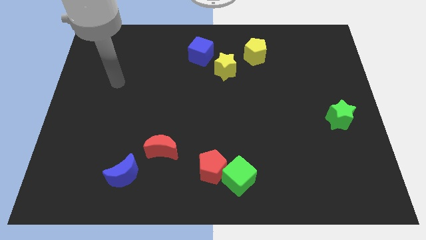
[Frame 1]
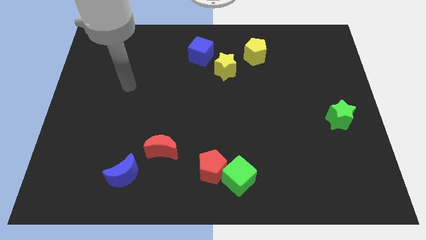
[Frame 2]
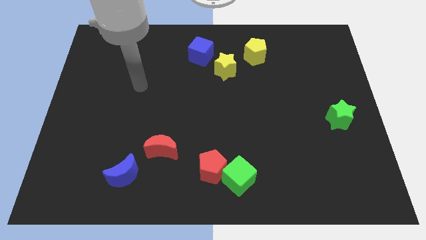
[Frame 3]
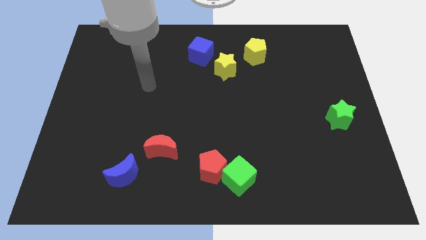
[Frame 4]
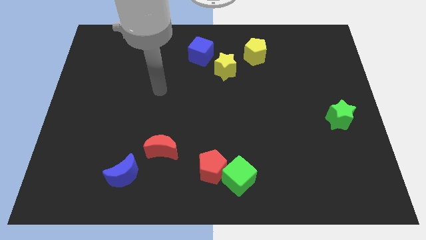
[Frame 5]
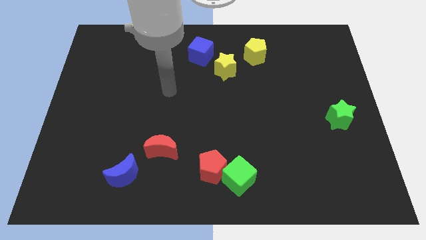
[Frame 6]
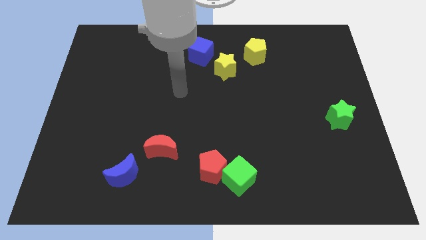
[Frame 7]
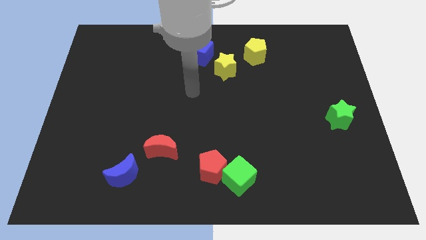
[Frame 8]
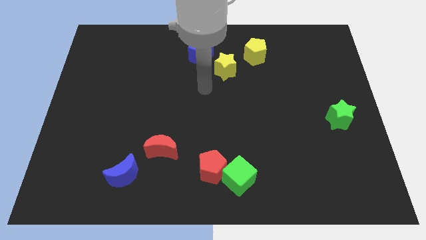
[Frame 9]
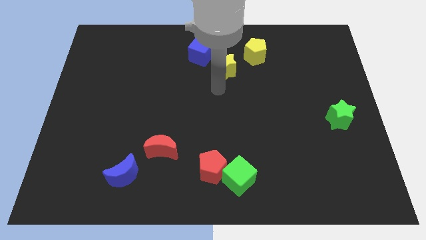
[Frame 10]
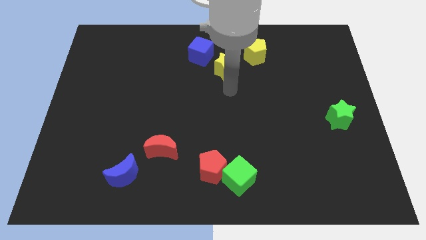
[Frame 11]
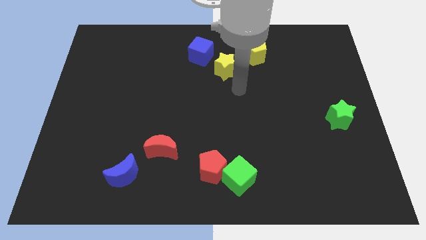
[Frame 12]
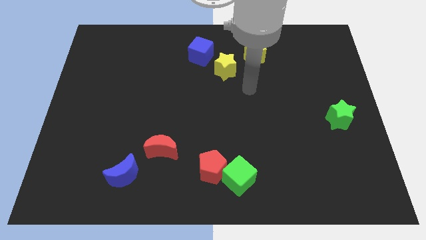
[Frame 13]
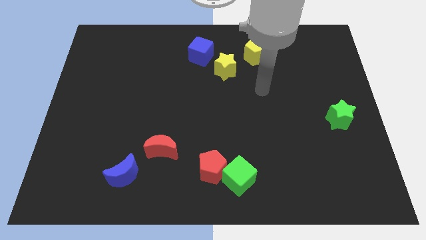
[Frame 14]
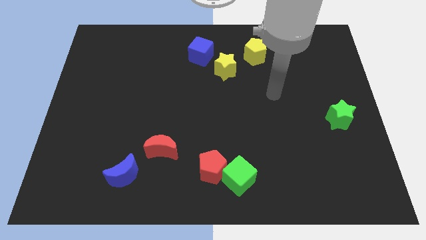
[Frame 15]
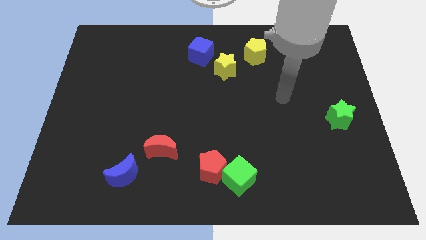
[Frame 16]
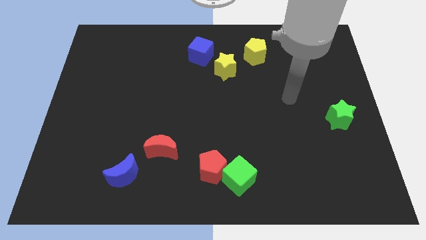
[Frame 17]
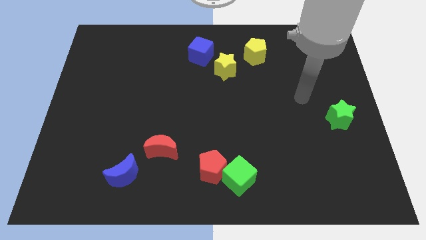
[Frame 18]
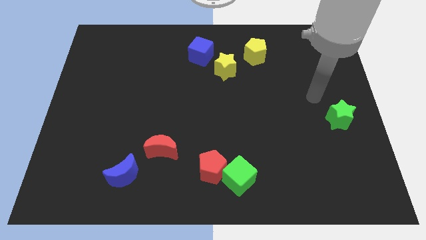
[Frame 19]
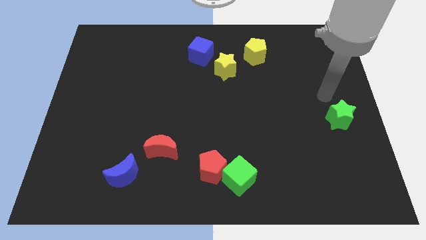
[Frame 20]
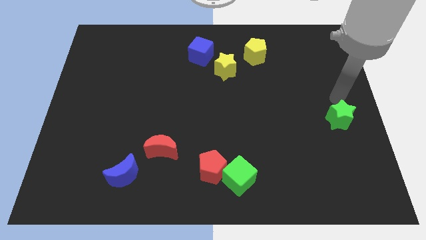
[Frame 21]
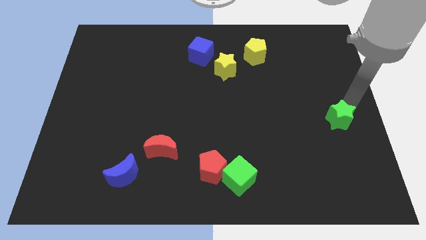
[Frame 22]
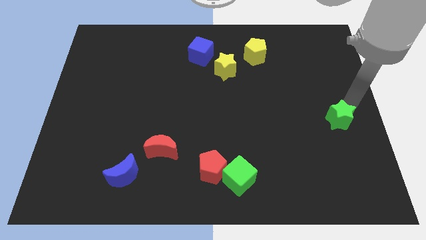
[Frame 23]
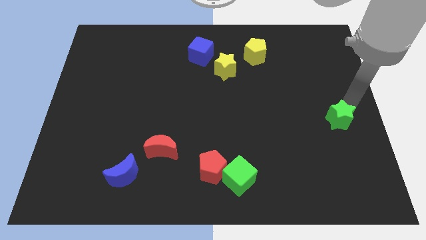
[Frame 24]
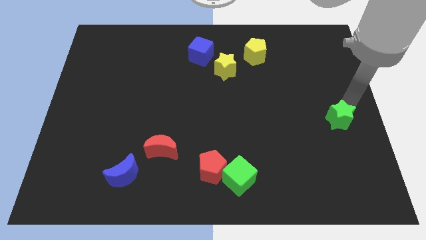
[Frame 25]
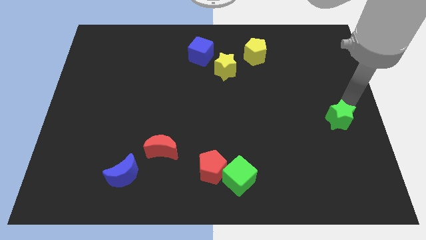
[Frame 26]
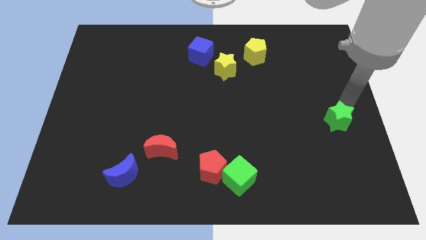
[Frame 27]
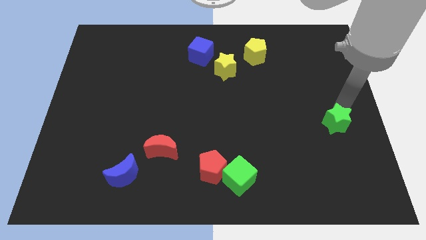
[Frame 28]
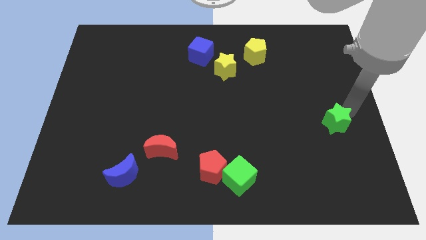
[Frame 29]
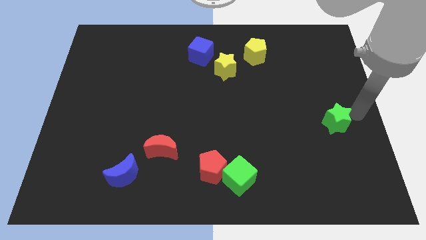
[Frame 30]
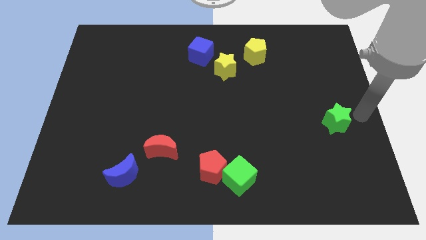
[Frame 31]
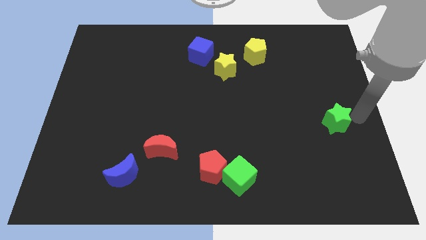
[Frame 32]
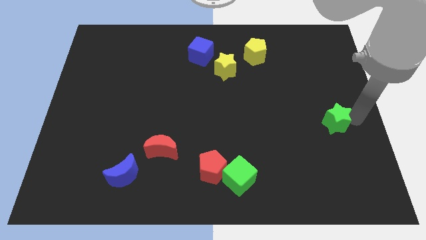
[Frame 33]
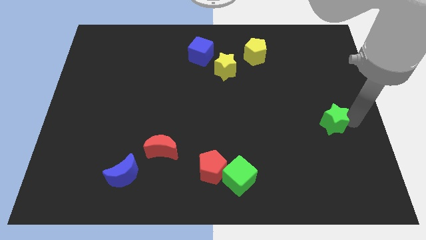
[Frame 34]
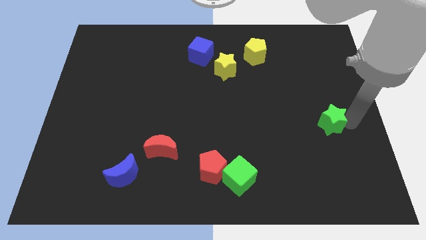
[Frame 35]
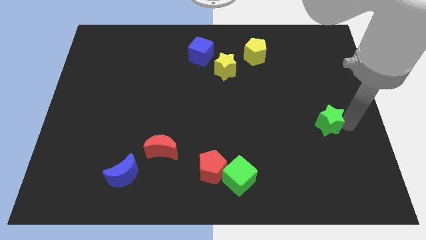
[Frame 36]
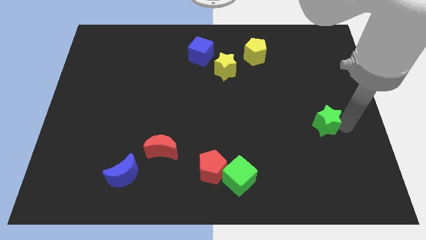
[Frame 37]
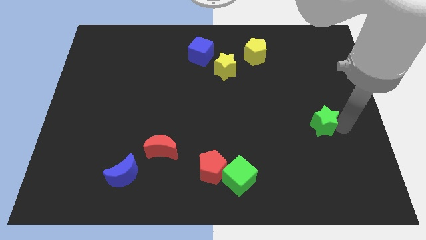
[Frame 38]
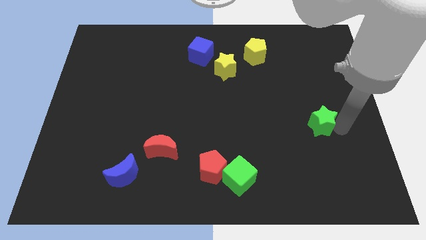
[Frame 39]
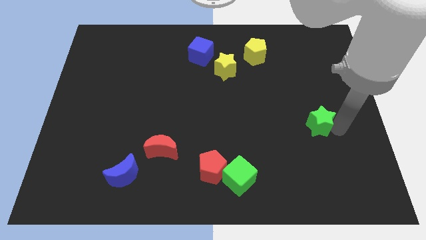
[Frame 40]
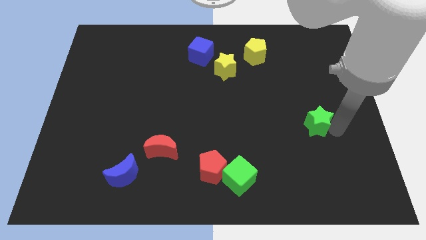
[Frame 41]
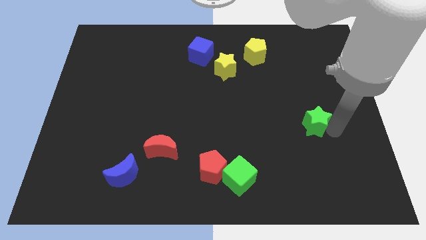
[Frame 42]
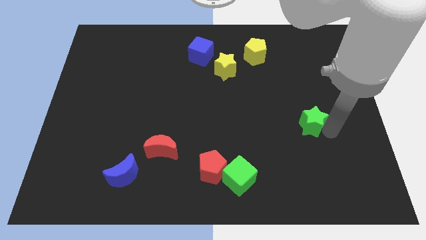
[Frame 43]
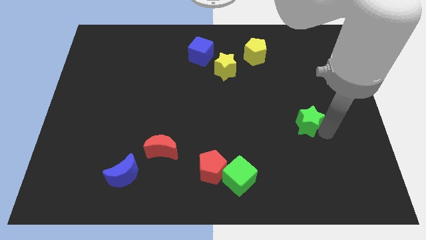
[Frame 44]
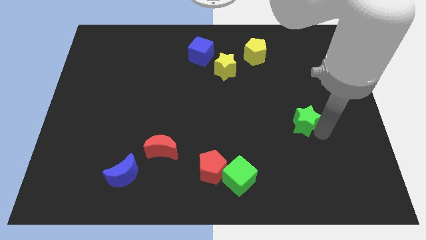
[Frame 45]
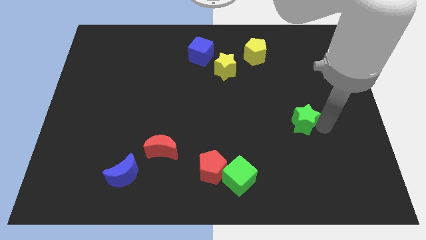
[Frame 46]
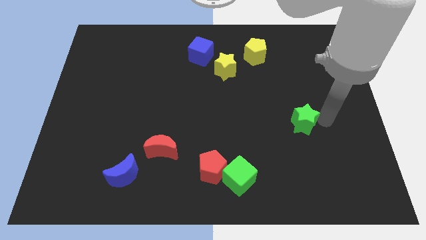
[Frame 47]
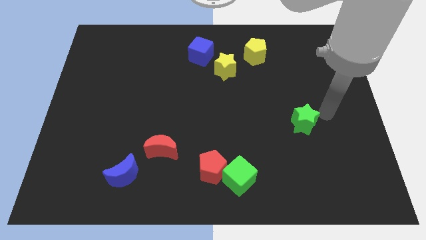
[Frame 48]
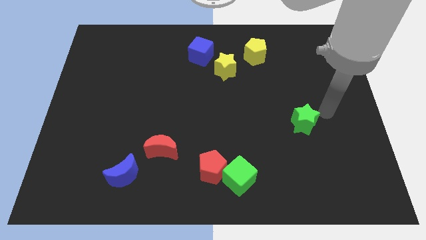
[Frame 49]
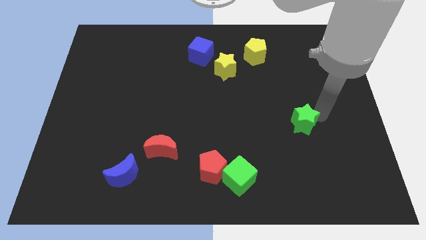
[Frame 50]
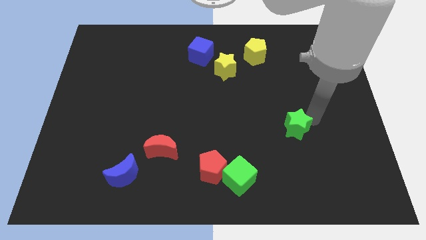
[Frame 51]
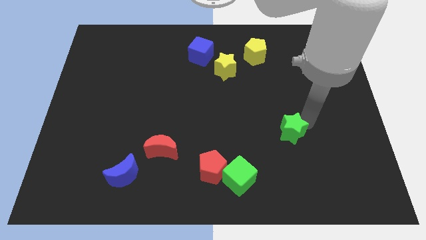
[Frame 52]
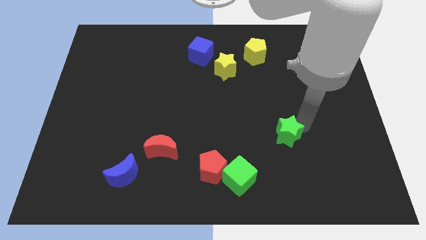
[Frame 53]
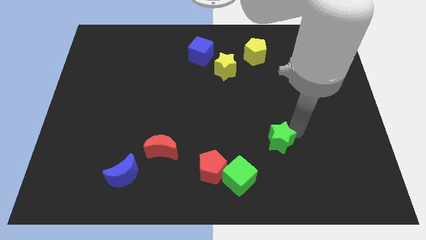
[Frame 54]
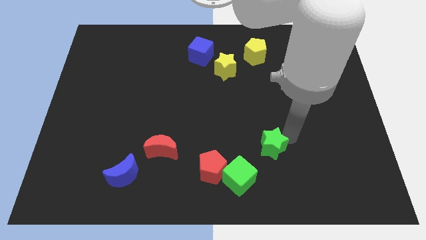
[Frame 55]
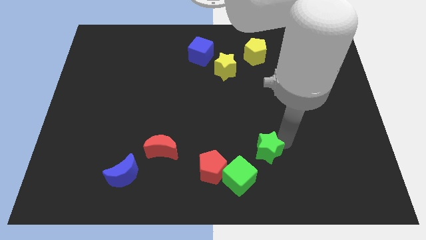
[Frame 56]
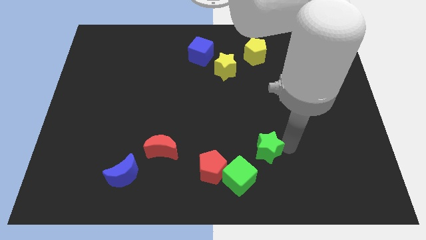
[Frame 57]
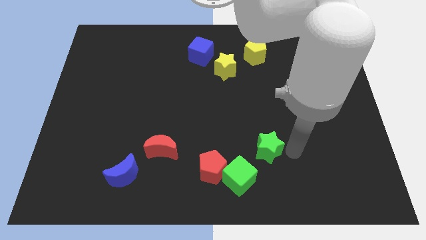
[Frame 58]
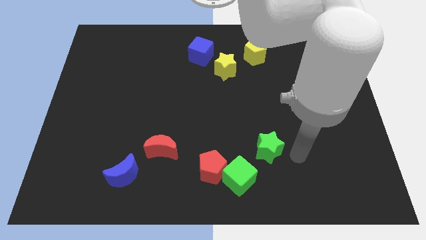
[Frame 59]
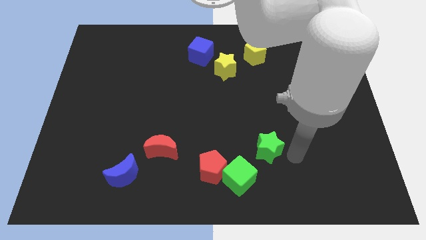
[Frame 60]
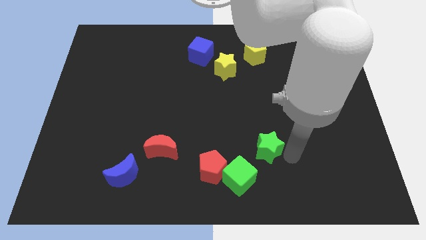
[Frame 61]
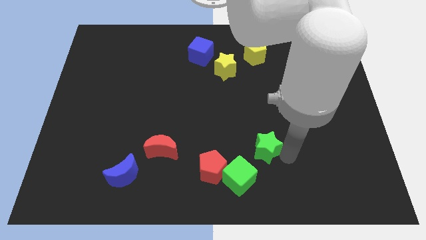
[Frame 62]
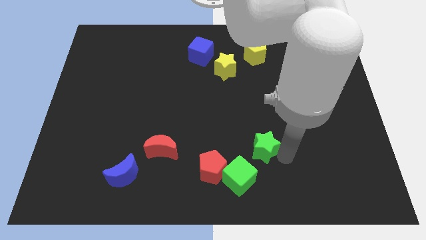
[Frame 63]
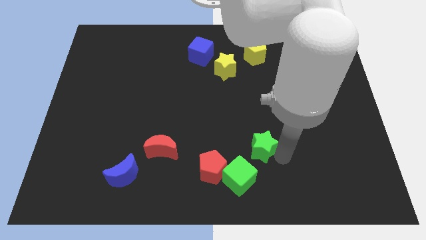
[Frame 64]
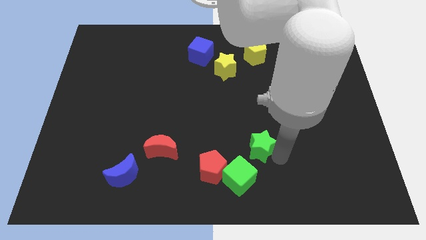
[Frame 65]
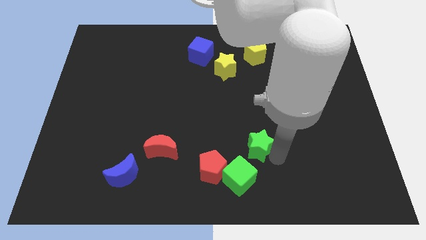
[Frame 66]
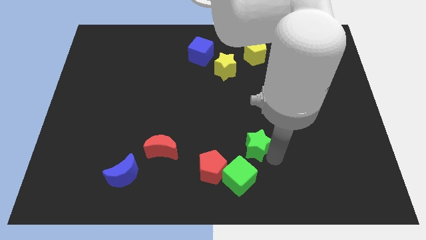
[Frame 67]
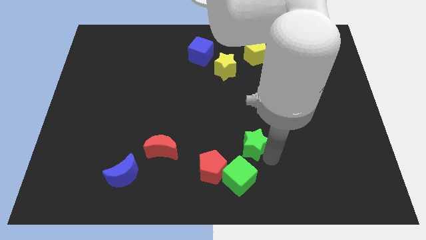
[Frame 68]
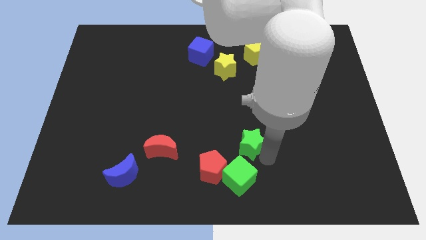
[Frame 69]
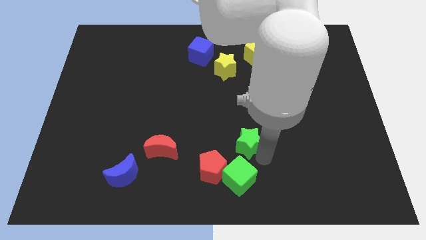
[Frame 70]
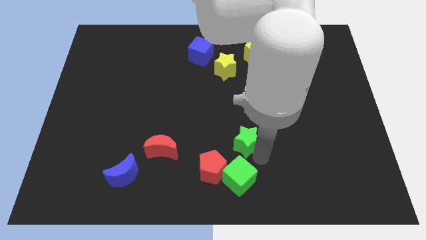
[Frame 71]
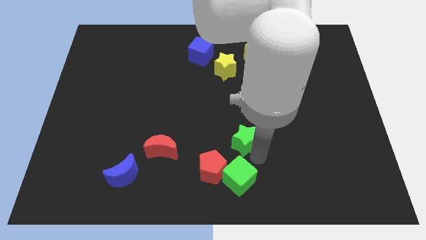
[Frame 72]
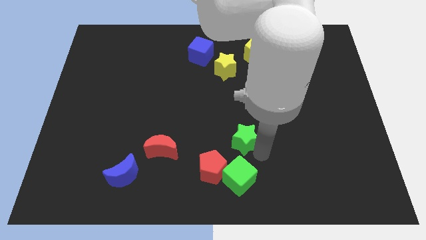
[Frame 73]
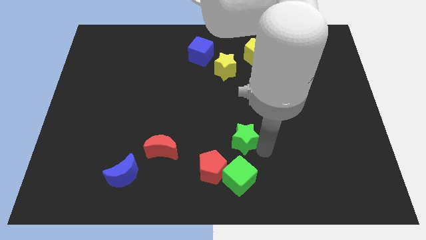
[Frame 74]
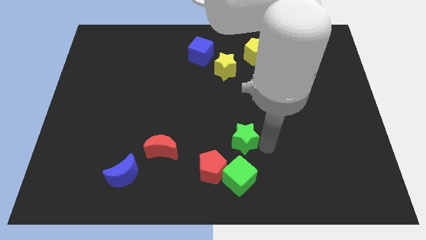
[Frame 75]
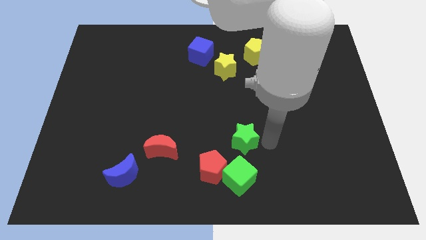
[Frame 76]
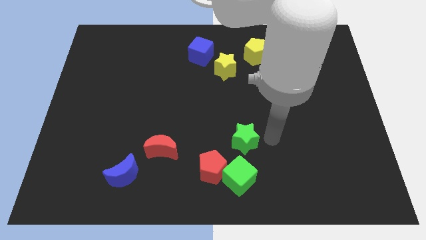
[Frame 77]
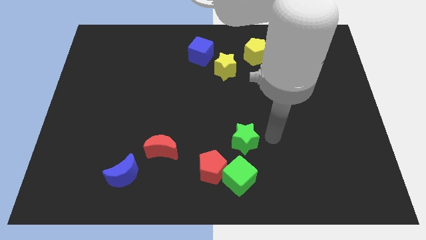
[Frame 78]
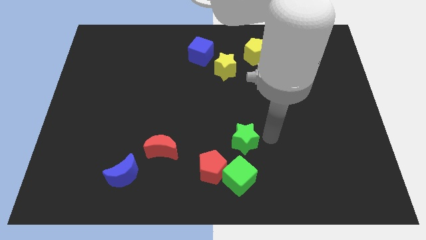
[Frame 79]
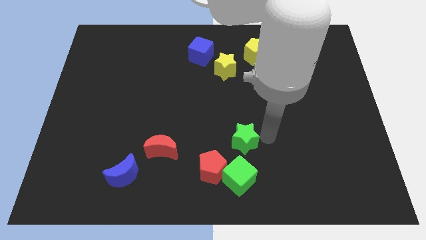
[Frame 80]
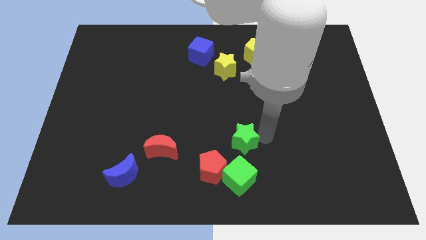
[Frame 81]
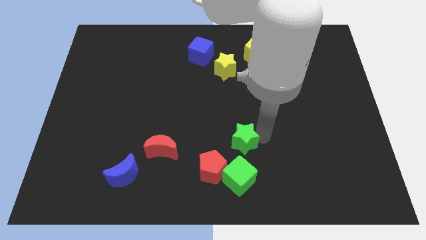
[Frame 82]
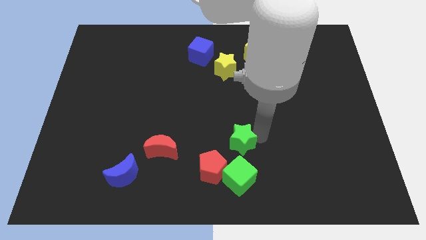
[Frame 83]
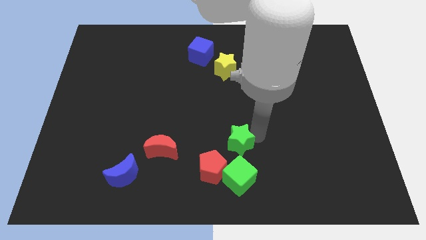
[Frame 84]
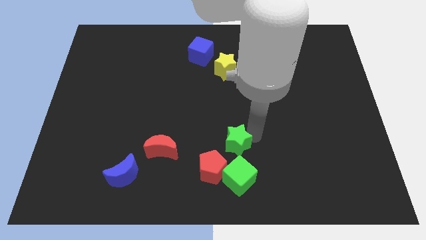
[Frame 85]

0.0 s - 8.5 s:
push the green star to the right side of the red moon
